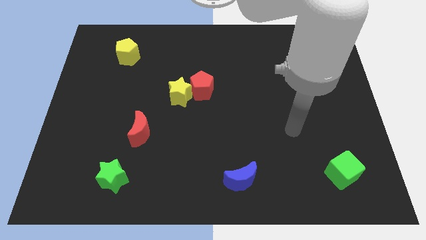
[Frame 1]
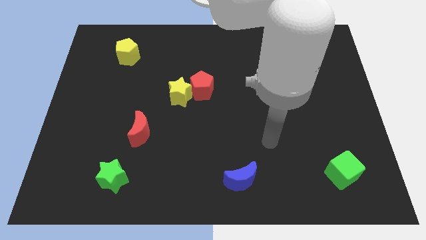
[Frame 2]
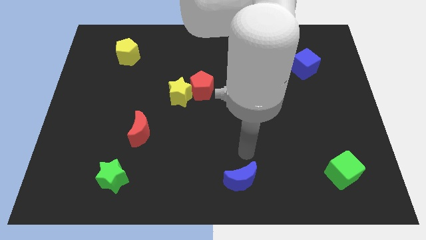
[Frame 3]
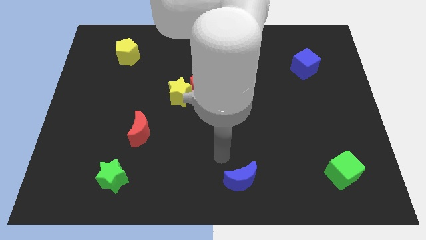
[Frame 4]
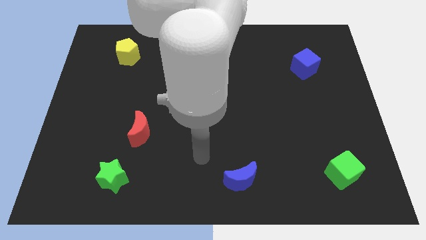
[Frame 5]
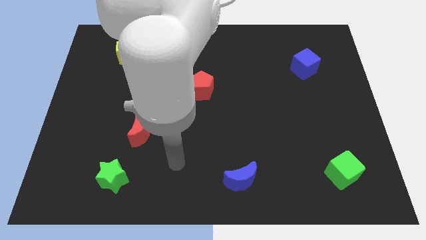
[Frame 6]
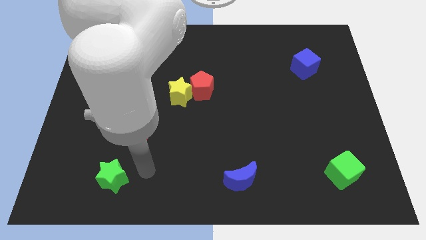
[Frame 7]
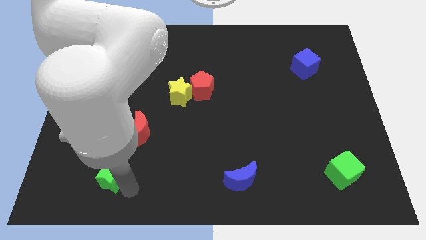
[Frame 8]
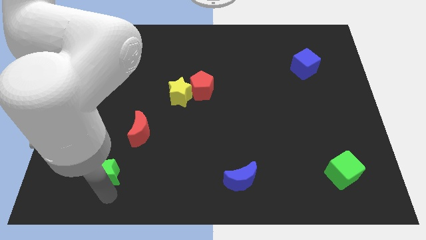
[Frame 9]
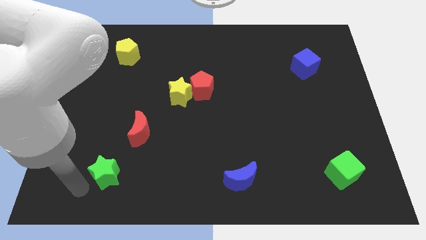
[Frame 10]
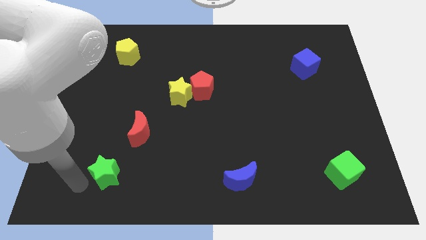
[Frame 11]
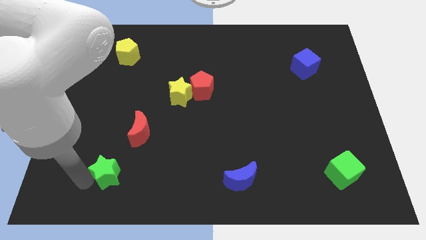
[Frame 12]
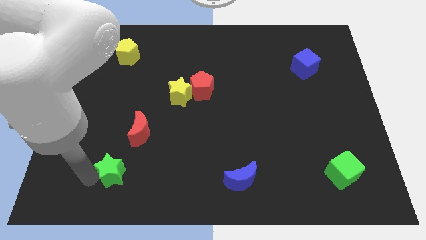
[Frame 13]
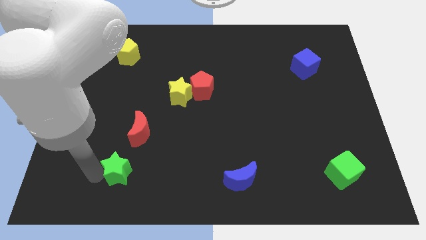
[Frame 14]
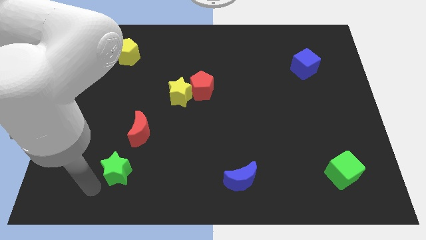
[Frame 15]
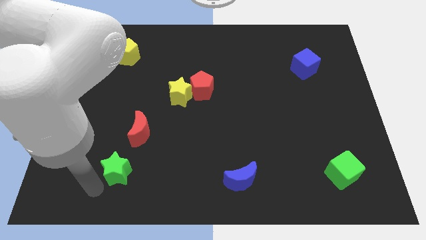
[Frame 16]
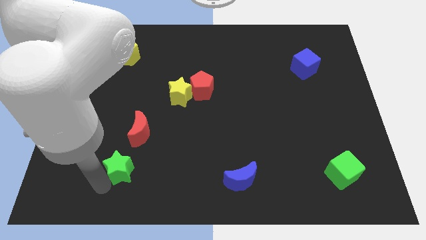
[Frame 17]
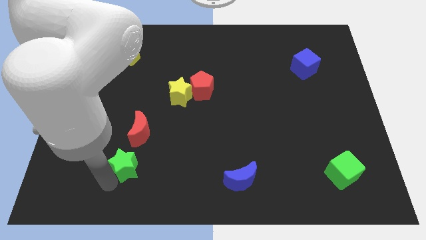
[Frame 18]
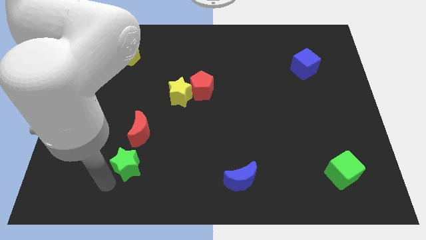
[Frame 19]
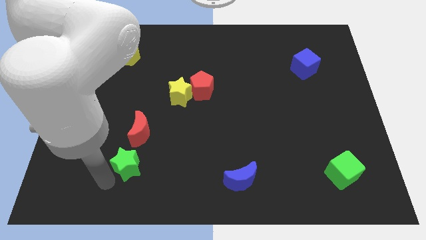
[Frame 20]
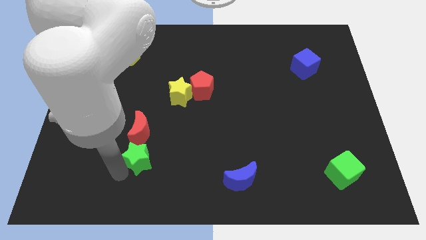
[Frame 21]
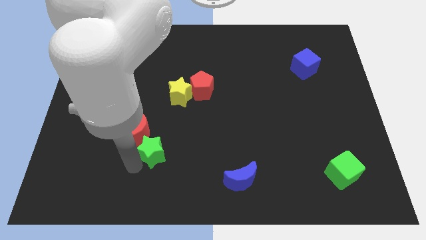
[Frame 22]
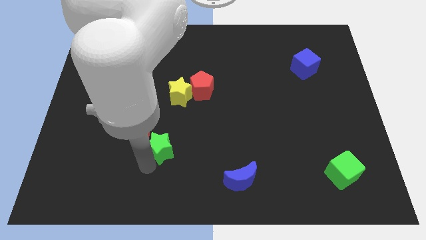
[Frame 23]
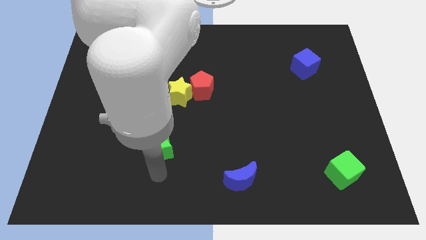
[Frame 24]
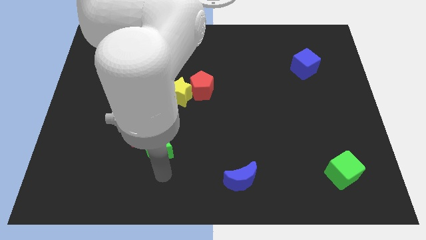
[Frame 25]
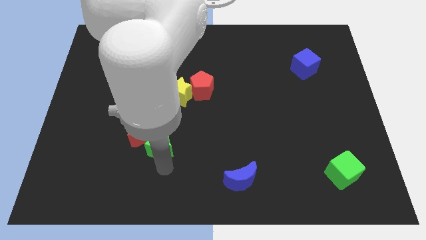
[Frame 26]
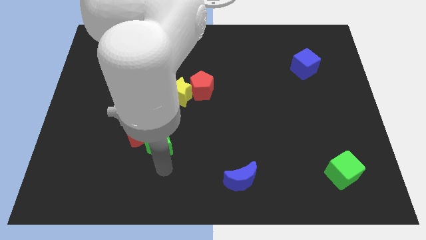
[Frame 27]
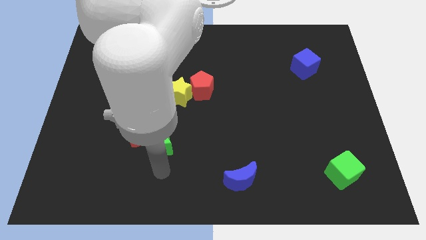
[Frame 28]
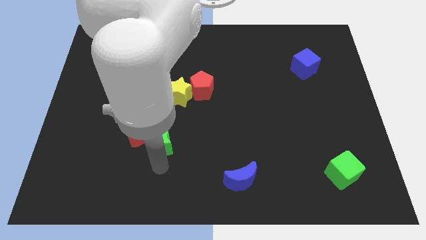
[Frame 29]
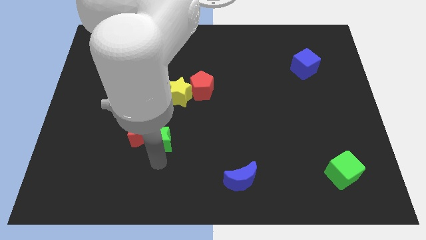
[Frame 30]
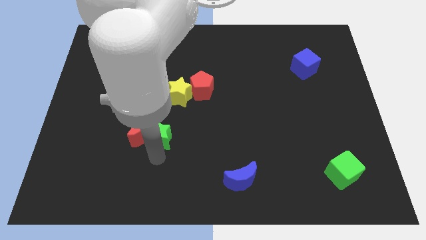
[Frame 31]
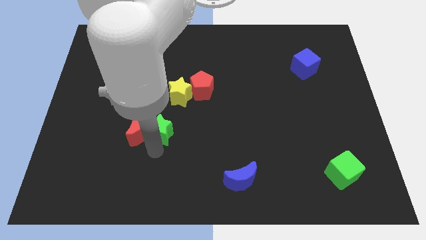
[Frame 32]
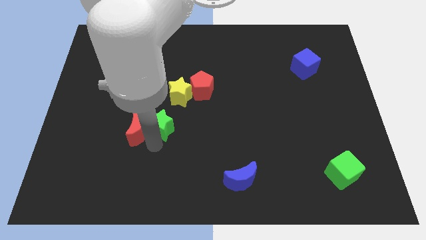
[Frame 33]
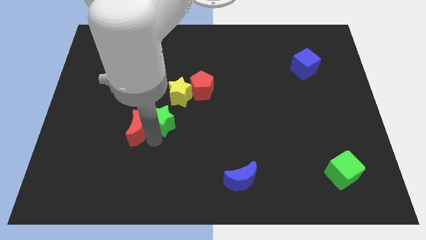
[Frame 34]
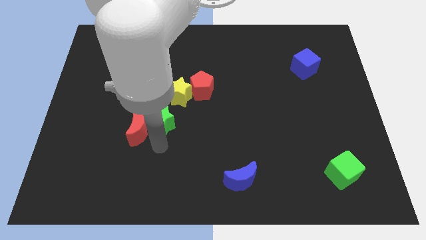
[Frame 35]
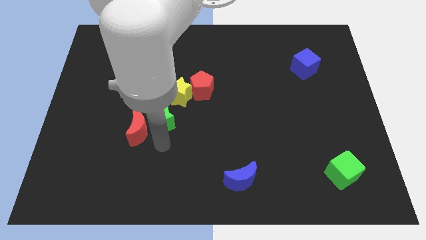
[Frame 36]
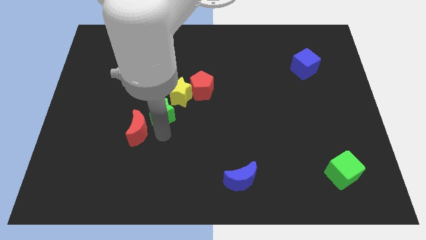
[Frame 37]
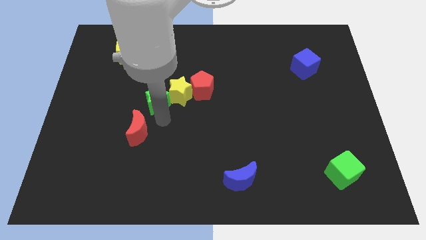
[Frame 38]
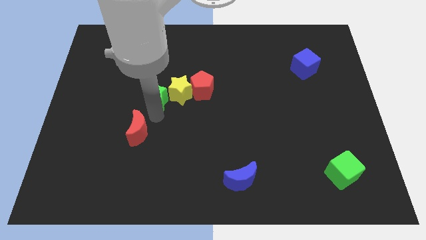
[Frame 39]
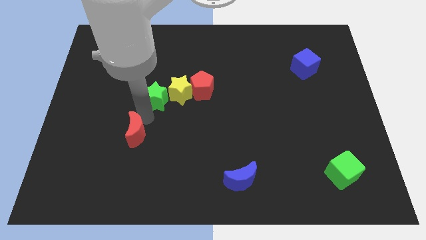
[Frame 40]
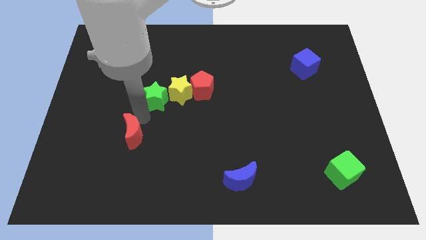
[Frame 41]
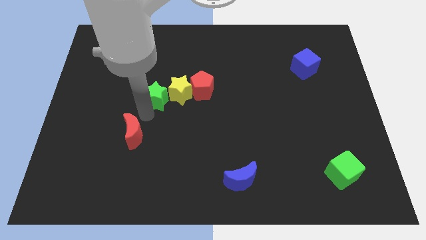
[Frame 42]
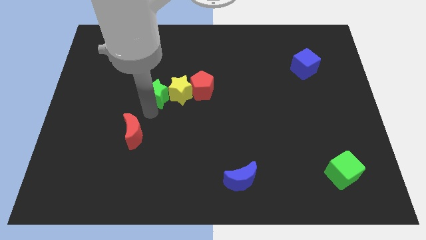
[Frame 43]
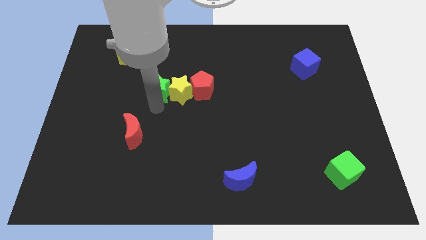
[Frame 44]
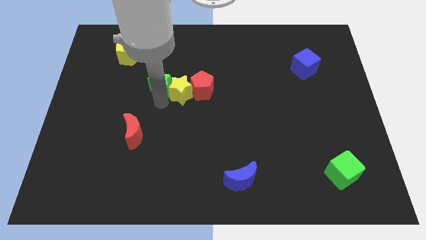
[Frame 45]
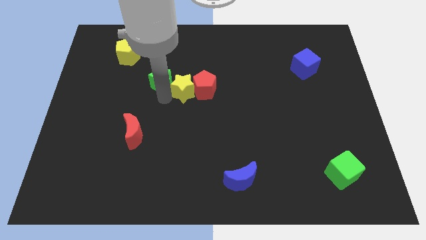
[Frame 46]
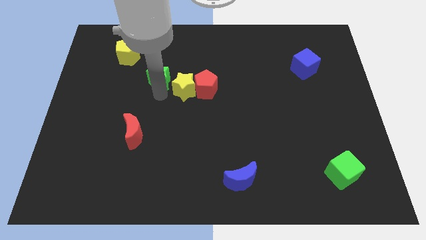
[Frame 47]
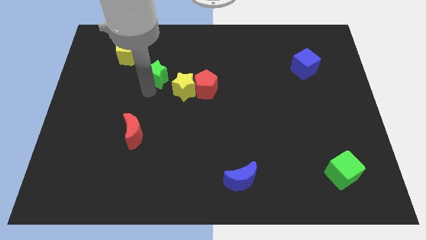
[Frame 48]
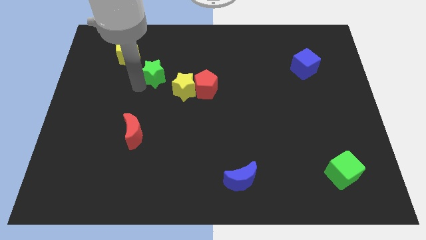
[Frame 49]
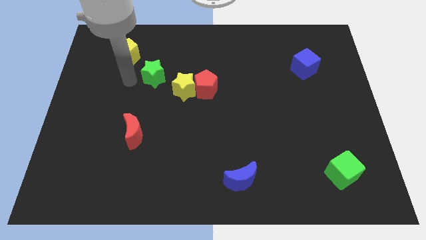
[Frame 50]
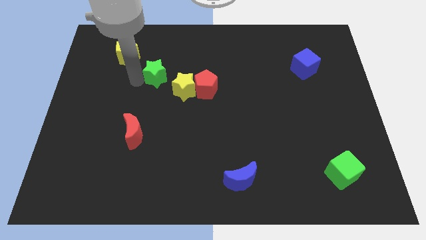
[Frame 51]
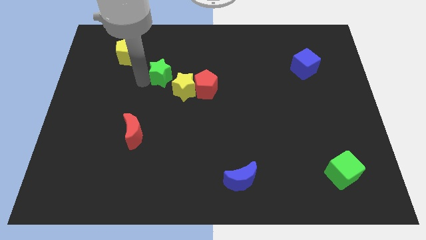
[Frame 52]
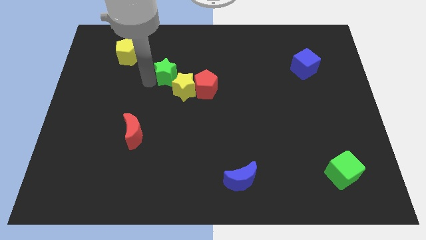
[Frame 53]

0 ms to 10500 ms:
push the green star to the top left side of the red pentagon
